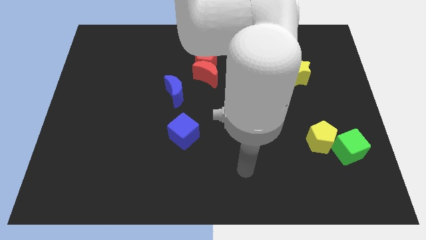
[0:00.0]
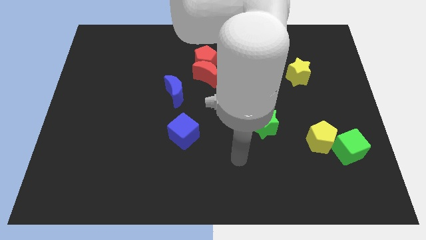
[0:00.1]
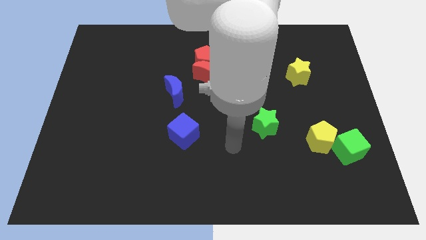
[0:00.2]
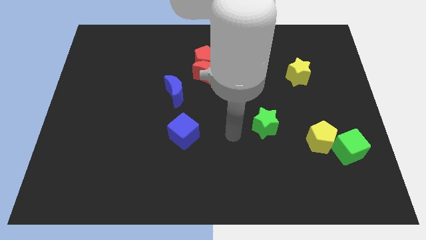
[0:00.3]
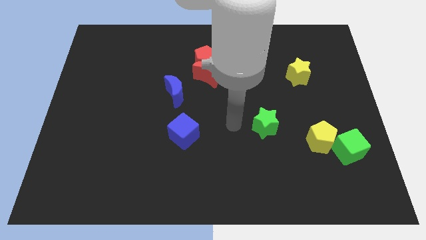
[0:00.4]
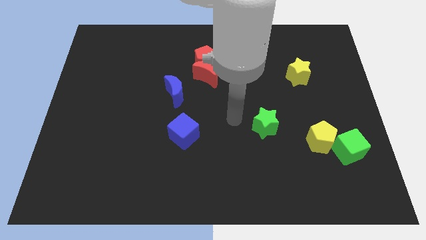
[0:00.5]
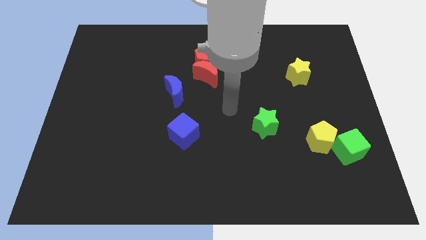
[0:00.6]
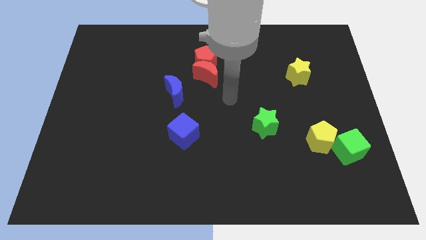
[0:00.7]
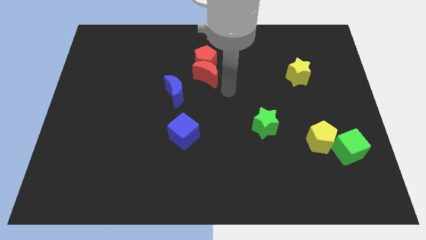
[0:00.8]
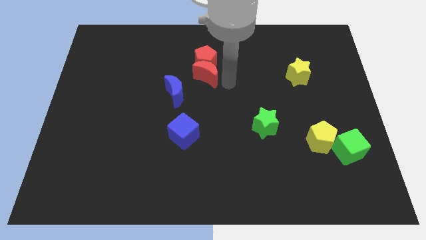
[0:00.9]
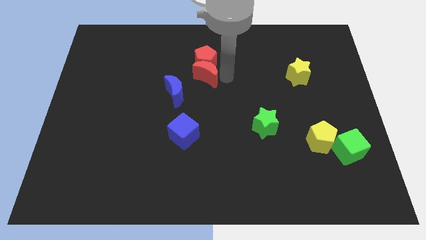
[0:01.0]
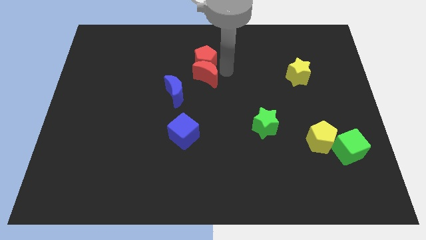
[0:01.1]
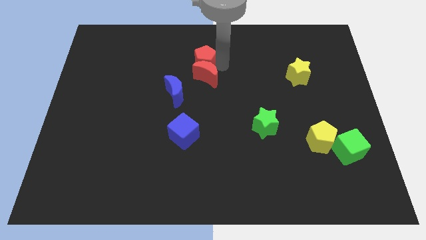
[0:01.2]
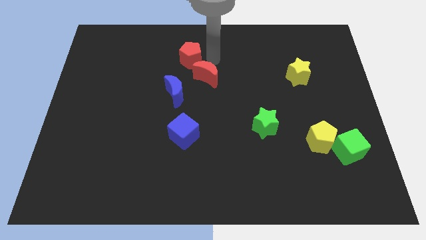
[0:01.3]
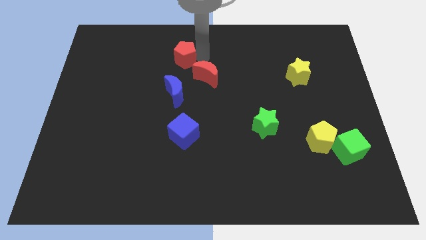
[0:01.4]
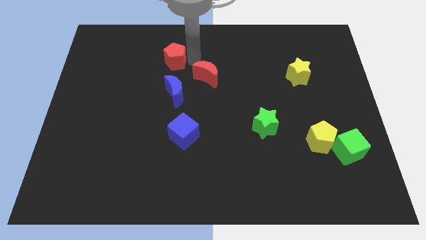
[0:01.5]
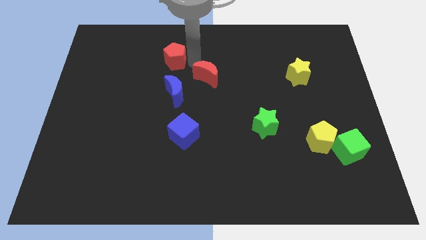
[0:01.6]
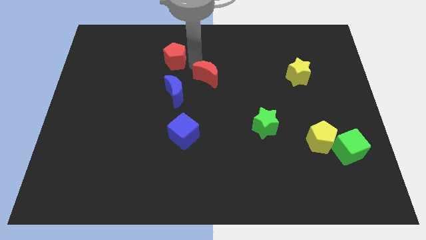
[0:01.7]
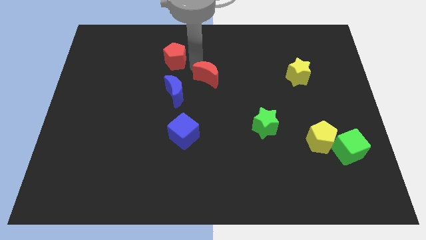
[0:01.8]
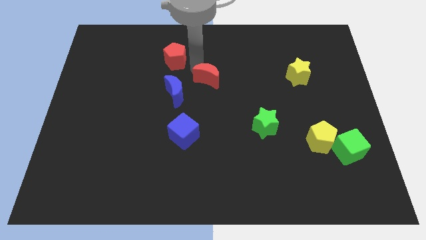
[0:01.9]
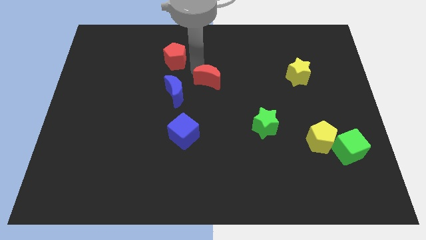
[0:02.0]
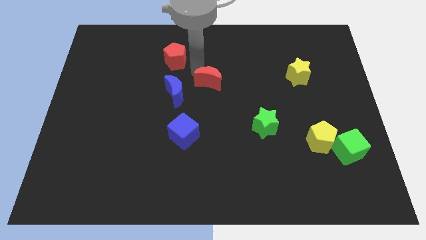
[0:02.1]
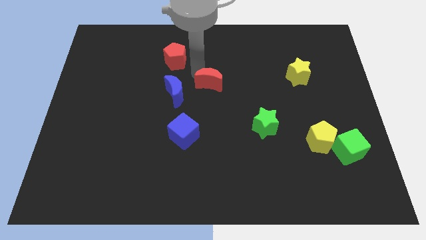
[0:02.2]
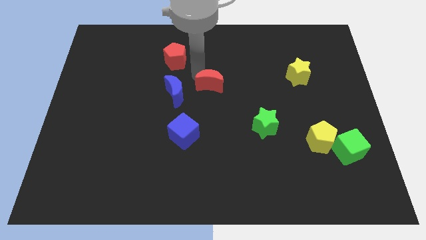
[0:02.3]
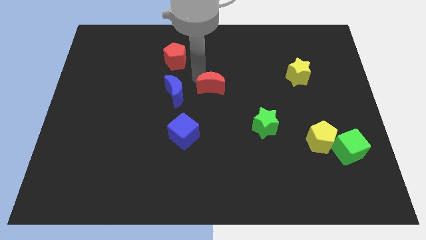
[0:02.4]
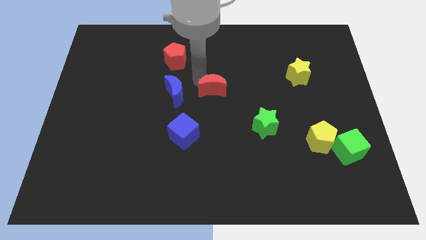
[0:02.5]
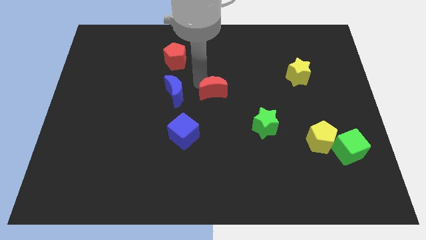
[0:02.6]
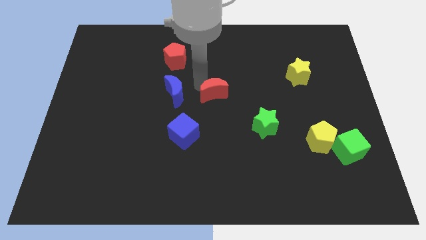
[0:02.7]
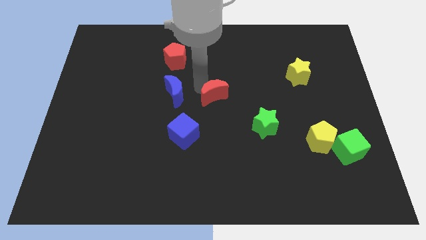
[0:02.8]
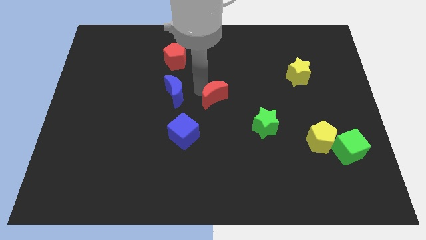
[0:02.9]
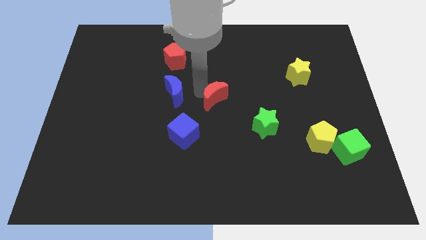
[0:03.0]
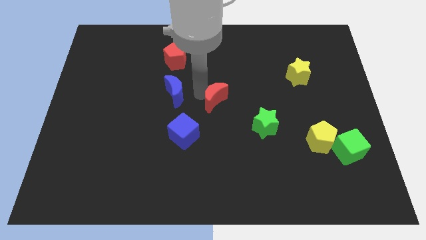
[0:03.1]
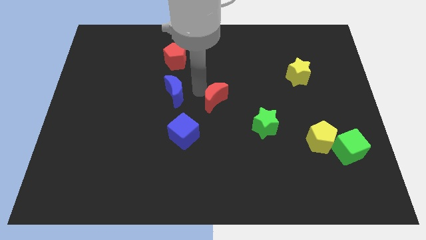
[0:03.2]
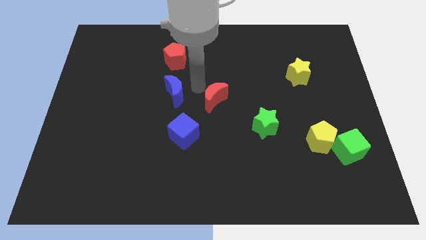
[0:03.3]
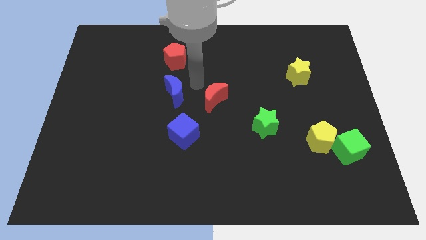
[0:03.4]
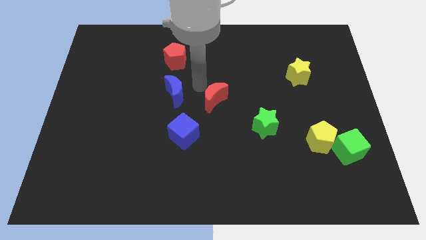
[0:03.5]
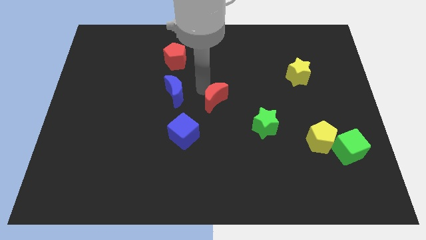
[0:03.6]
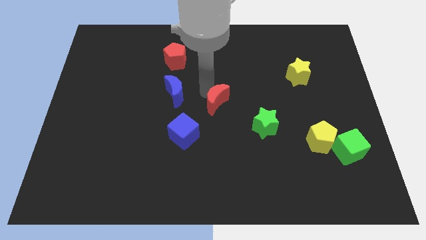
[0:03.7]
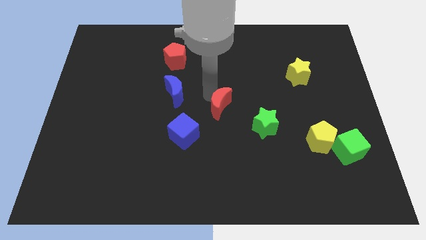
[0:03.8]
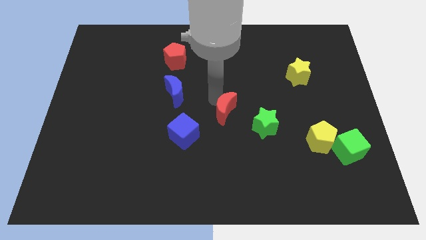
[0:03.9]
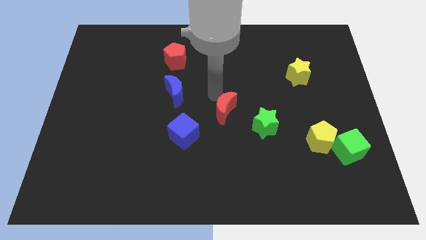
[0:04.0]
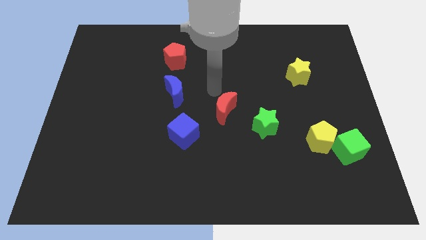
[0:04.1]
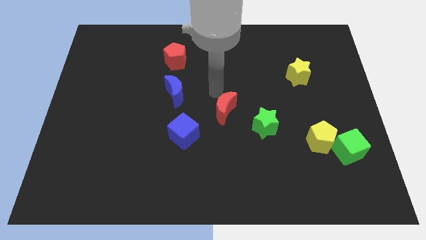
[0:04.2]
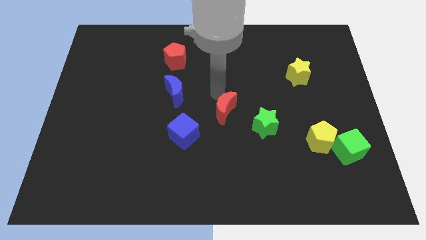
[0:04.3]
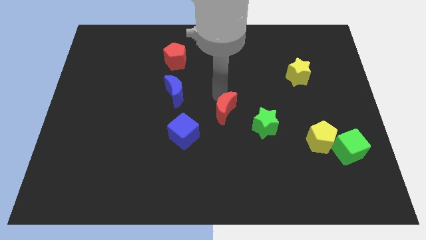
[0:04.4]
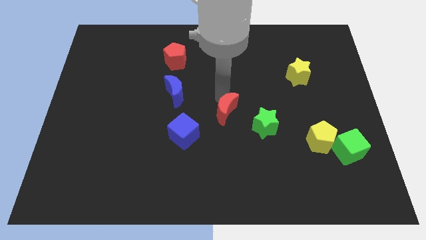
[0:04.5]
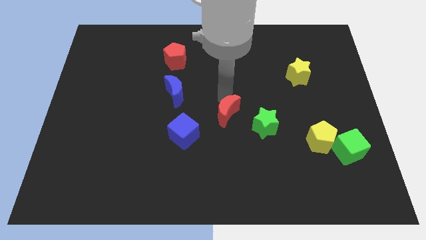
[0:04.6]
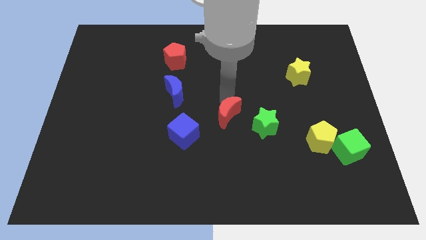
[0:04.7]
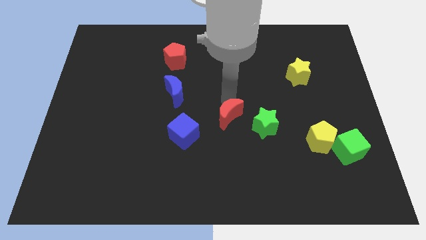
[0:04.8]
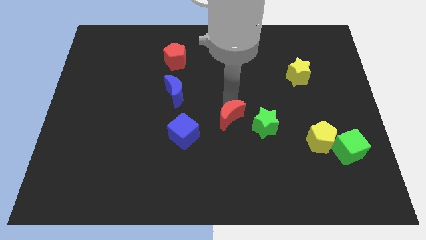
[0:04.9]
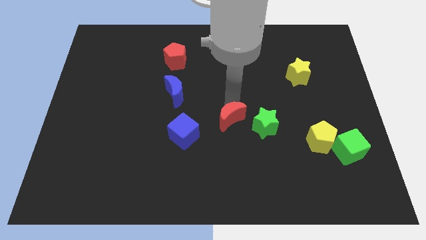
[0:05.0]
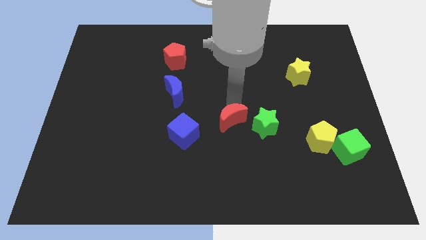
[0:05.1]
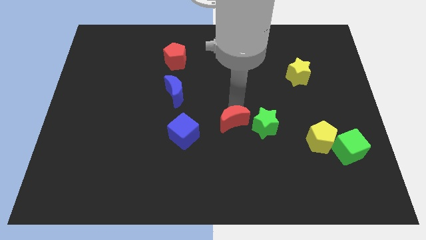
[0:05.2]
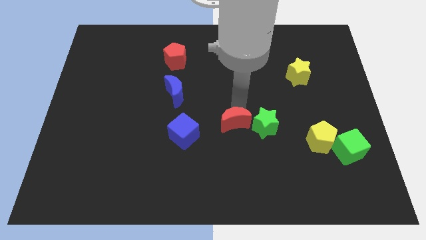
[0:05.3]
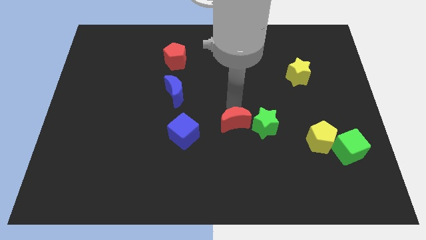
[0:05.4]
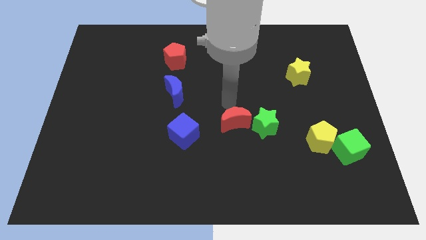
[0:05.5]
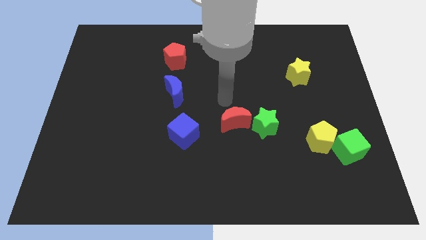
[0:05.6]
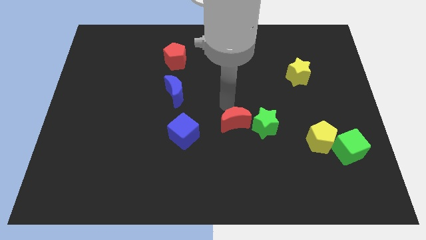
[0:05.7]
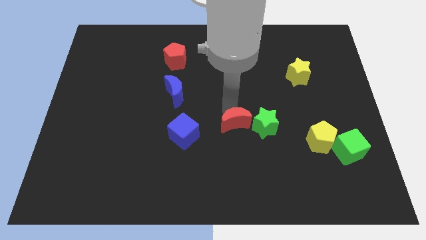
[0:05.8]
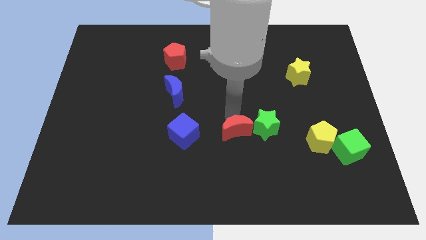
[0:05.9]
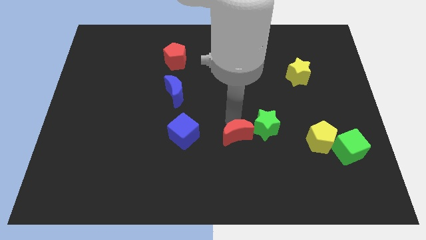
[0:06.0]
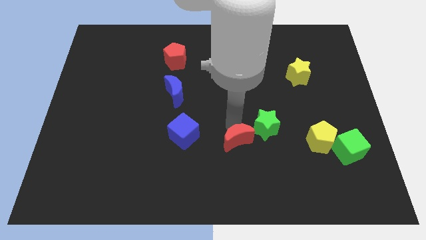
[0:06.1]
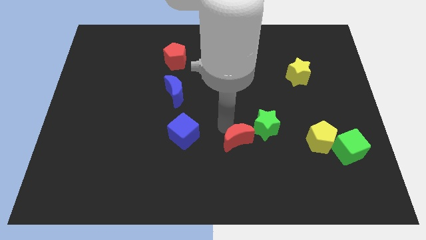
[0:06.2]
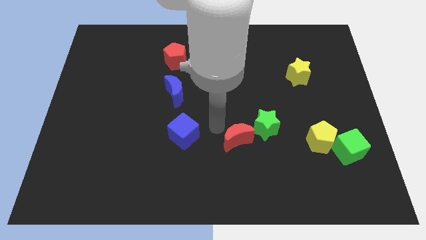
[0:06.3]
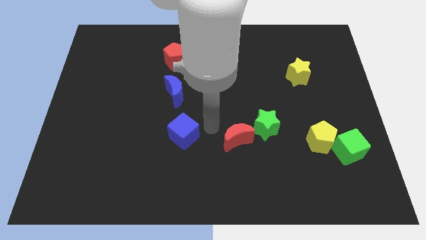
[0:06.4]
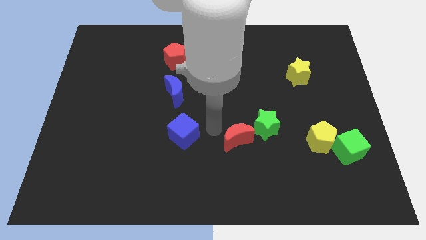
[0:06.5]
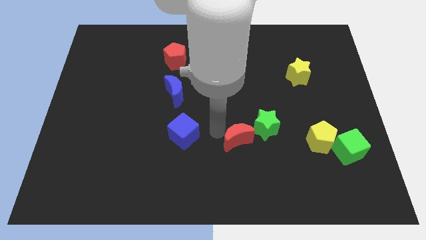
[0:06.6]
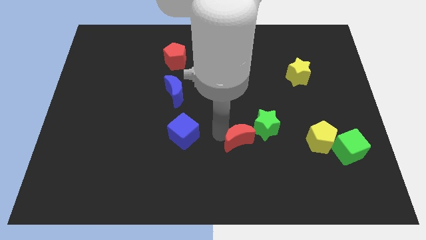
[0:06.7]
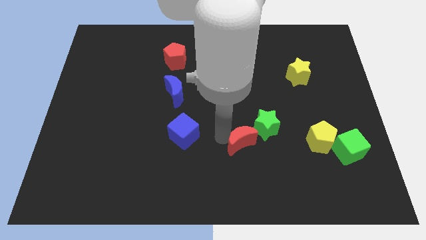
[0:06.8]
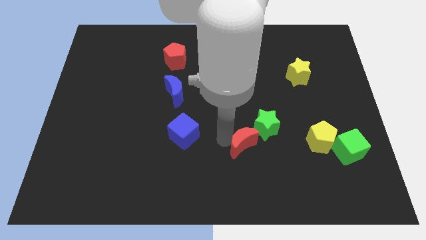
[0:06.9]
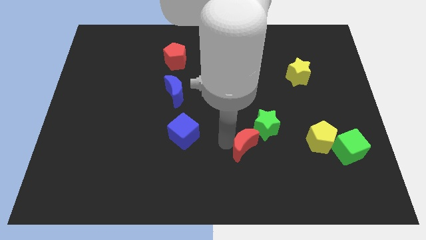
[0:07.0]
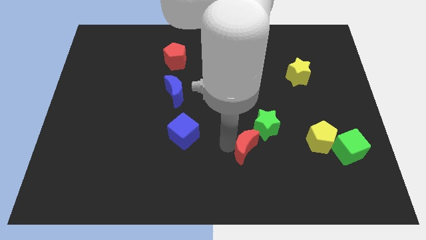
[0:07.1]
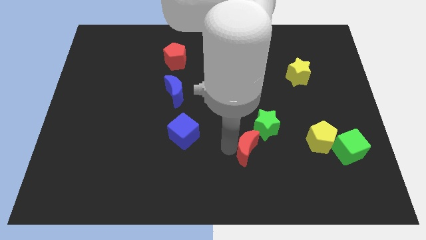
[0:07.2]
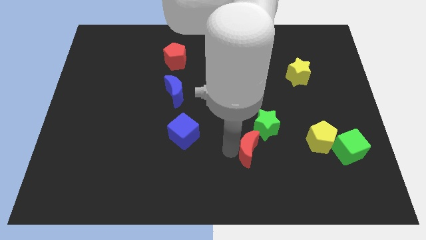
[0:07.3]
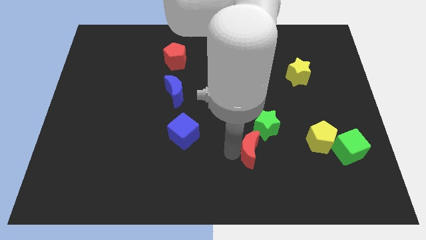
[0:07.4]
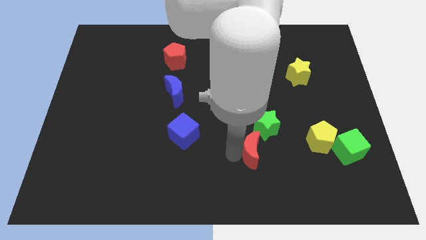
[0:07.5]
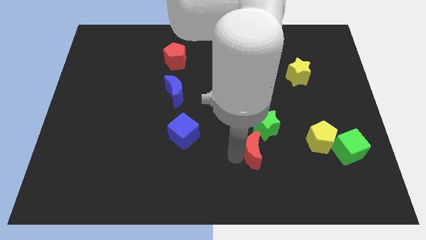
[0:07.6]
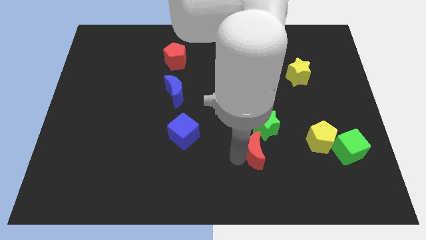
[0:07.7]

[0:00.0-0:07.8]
push the red moon down and to the right

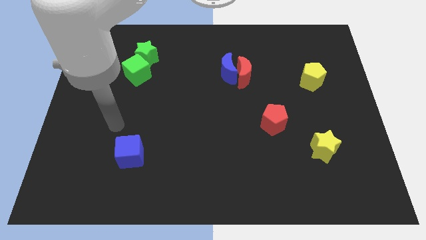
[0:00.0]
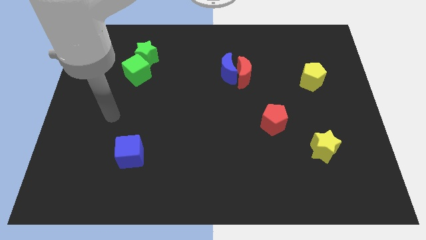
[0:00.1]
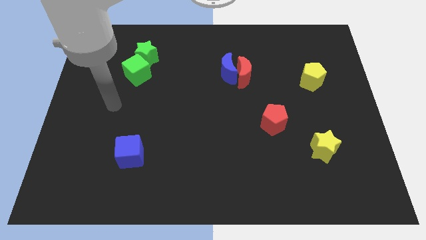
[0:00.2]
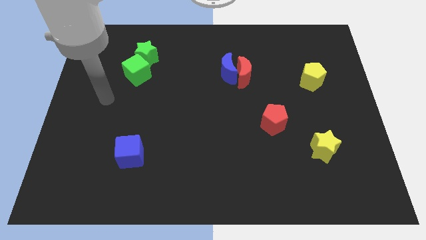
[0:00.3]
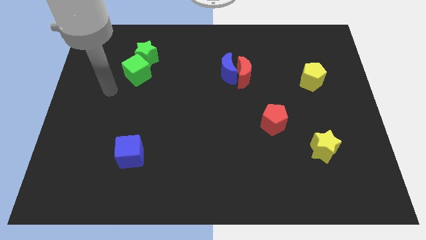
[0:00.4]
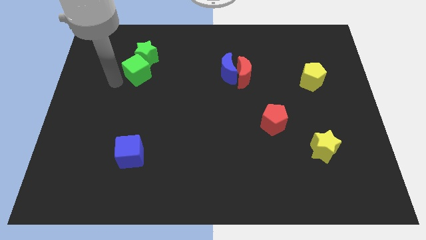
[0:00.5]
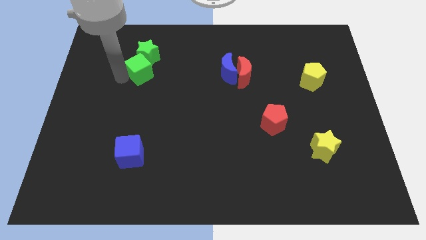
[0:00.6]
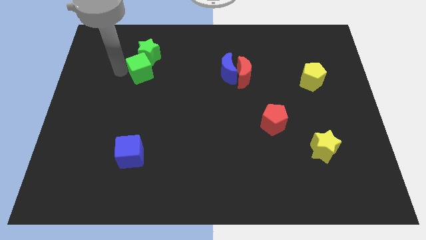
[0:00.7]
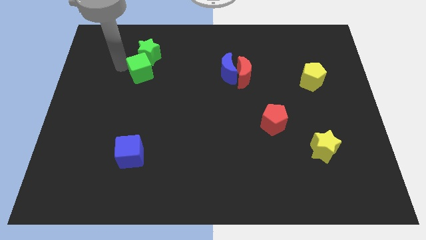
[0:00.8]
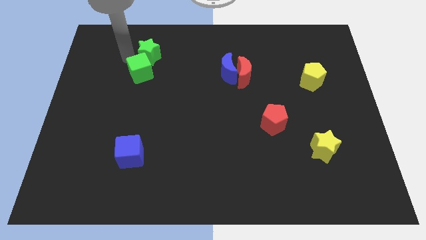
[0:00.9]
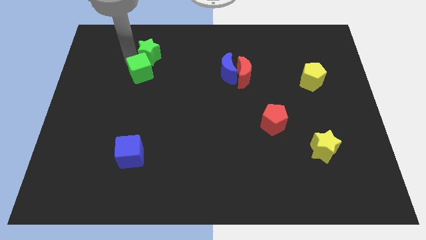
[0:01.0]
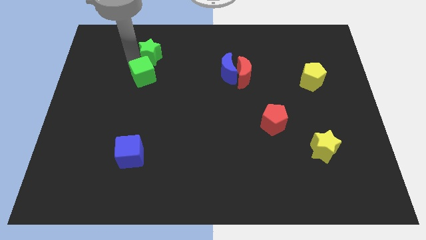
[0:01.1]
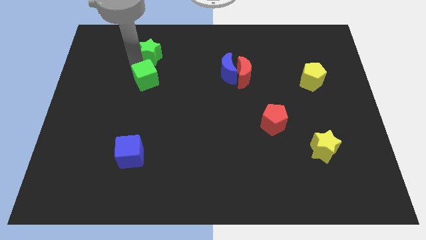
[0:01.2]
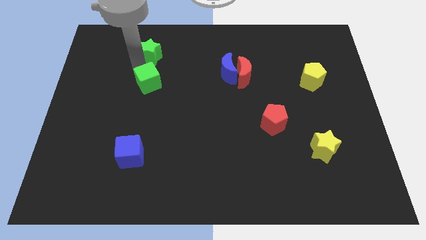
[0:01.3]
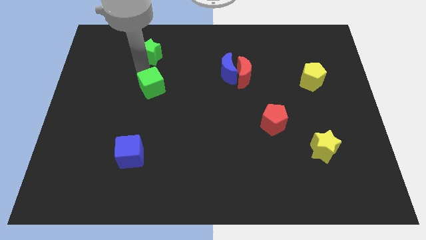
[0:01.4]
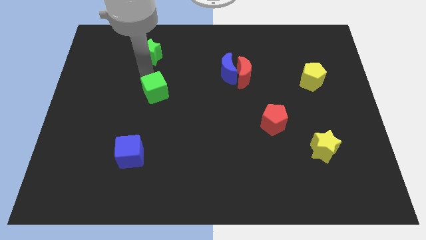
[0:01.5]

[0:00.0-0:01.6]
push the green cube downwards and then to the right a bit
